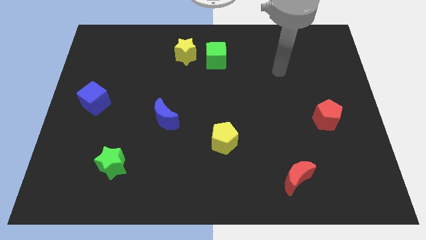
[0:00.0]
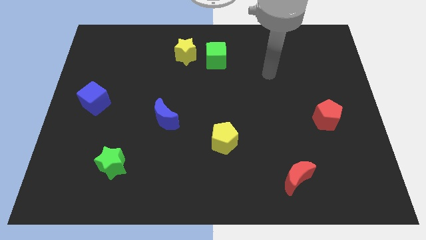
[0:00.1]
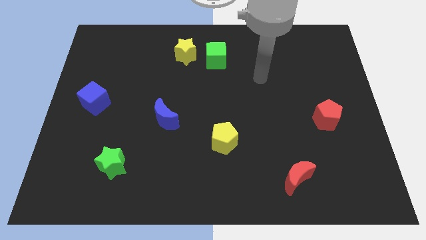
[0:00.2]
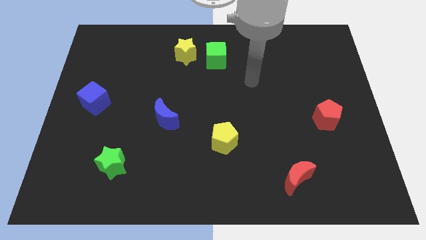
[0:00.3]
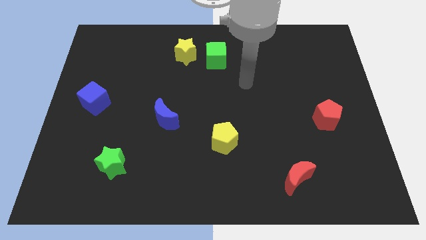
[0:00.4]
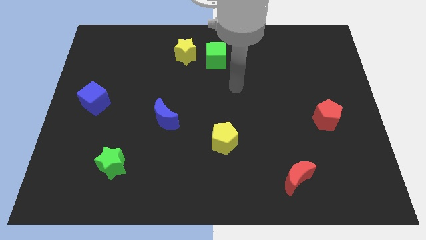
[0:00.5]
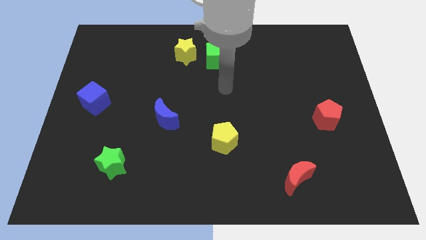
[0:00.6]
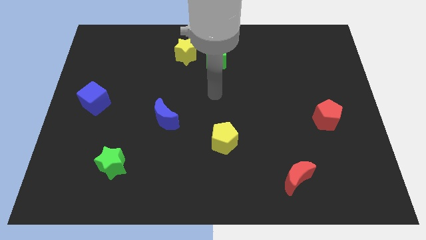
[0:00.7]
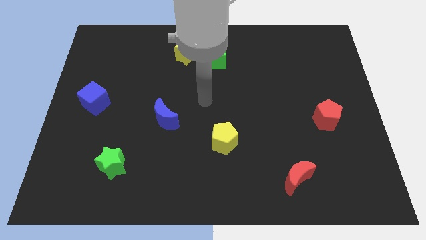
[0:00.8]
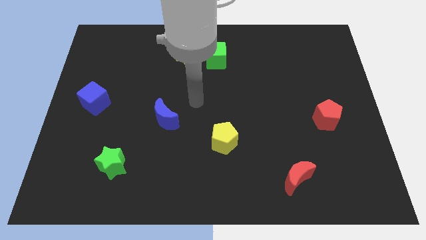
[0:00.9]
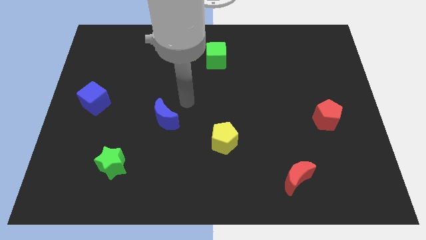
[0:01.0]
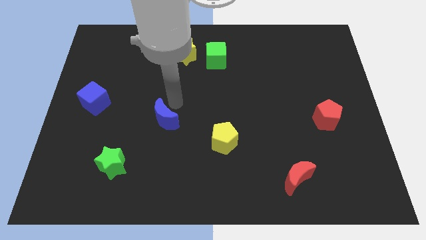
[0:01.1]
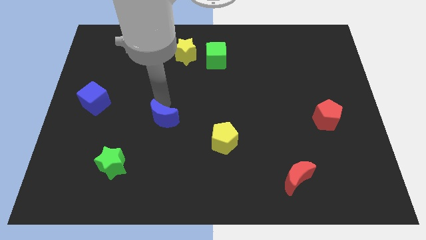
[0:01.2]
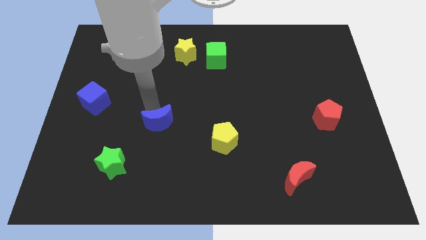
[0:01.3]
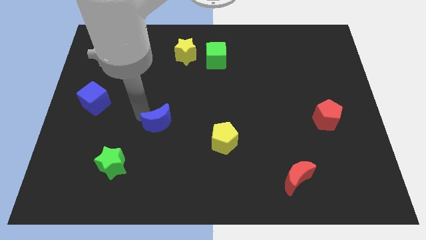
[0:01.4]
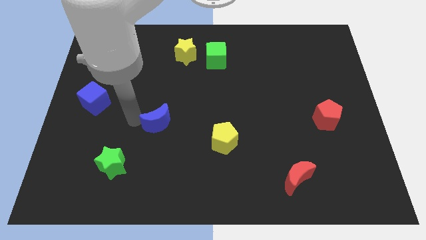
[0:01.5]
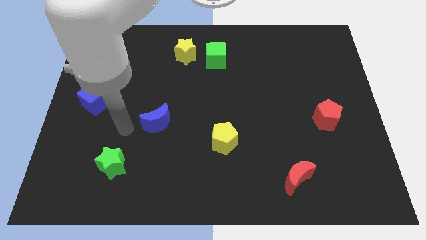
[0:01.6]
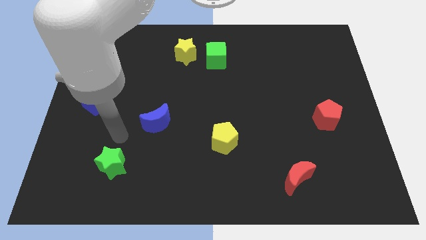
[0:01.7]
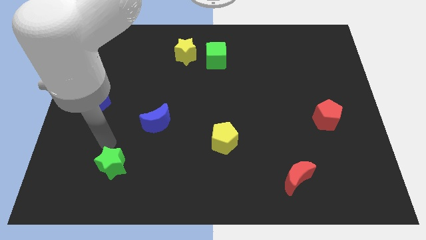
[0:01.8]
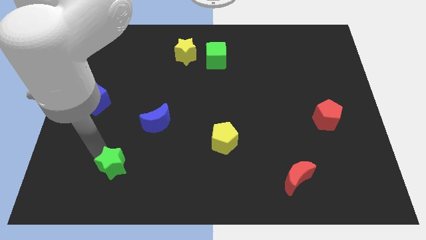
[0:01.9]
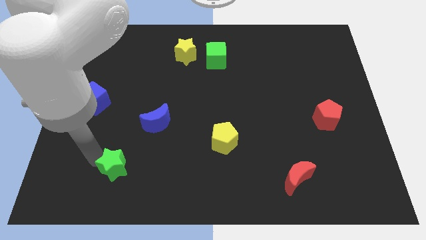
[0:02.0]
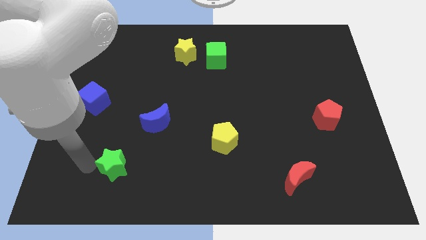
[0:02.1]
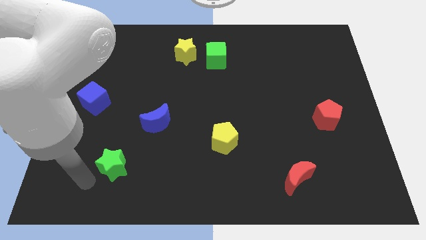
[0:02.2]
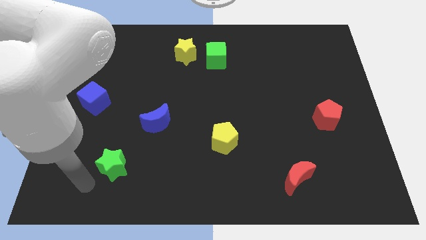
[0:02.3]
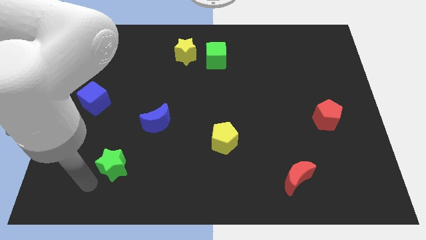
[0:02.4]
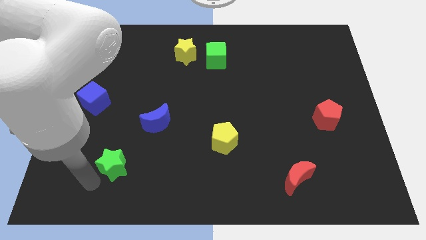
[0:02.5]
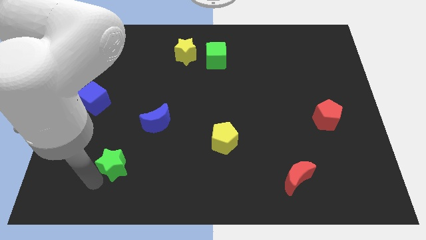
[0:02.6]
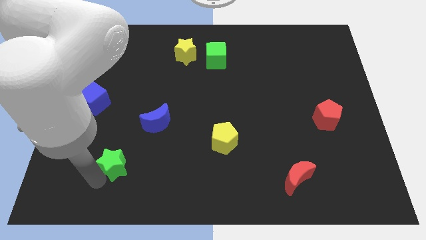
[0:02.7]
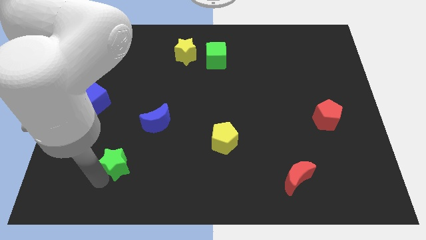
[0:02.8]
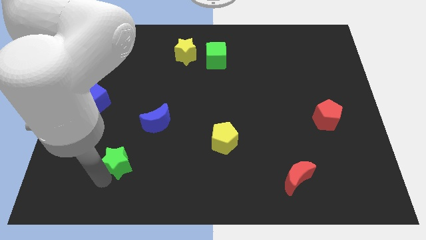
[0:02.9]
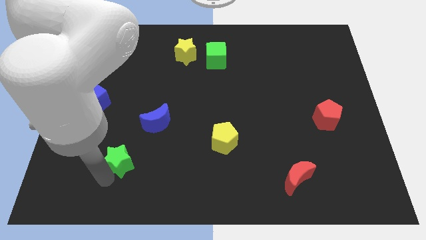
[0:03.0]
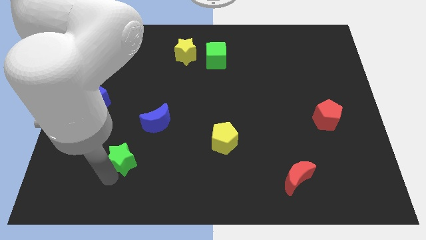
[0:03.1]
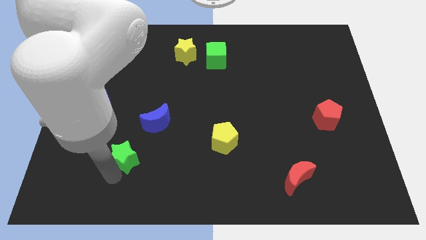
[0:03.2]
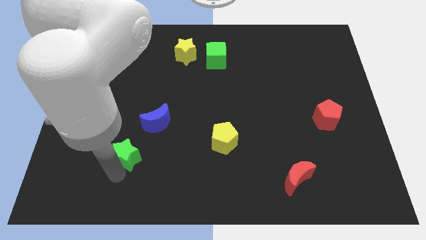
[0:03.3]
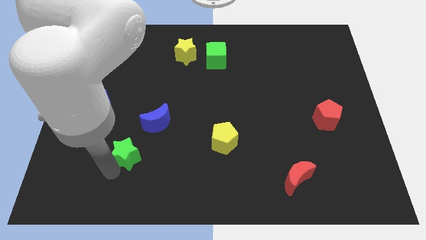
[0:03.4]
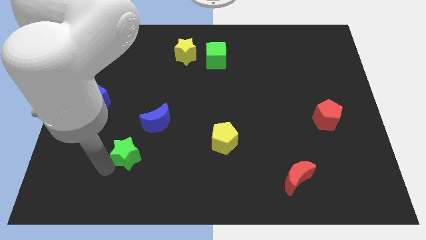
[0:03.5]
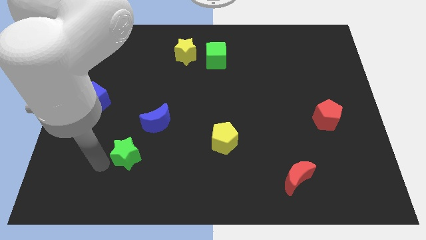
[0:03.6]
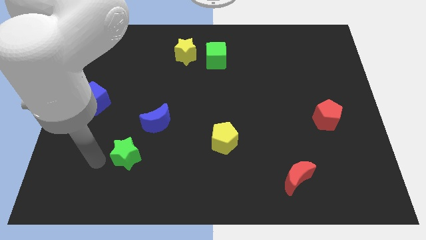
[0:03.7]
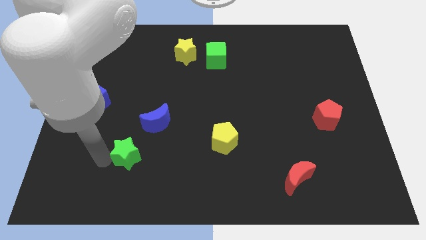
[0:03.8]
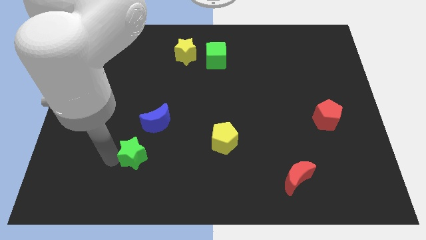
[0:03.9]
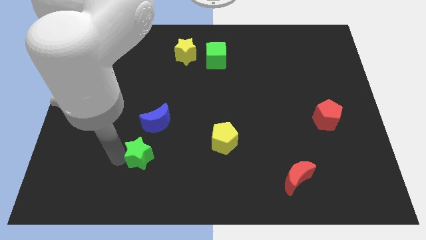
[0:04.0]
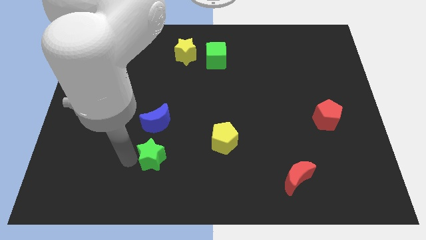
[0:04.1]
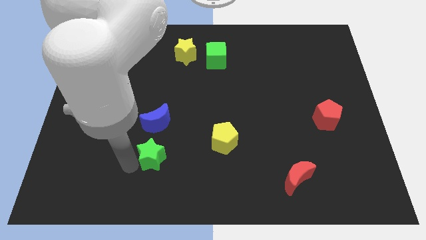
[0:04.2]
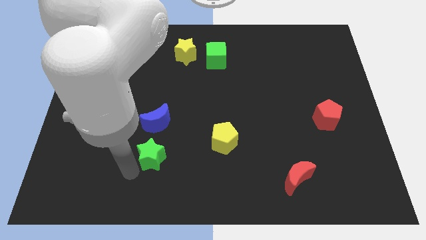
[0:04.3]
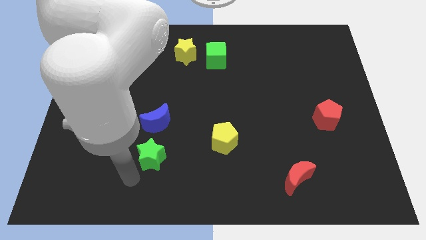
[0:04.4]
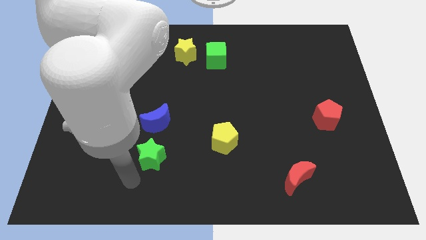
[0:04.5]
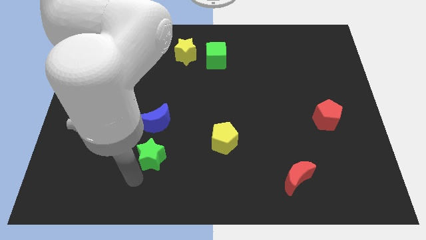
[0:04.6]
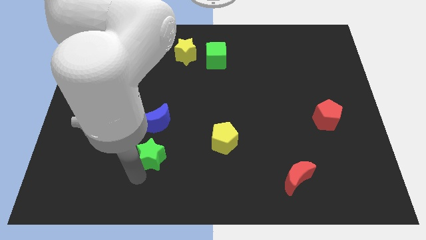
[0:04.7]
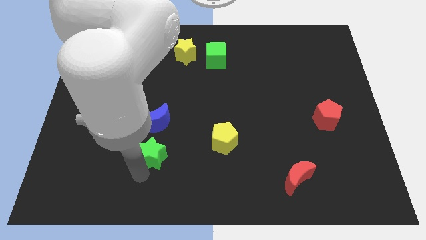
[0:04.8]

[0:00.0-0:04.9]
push the green star a little diagonally upwards and right

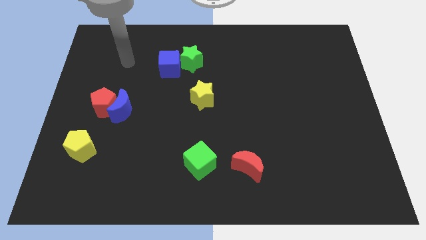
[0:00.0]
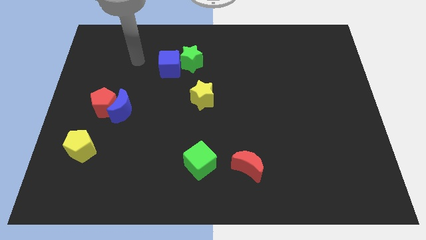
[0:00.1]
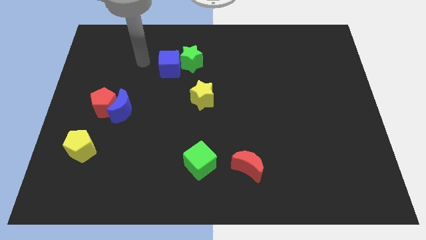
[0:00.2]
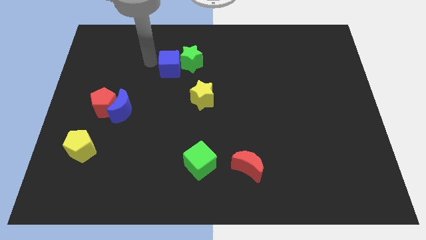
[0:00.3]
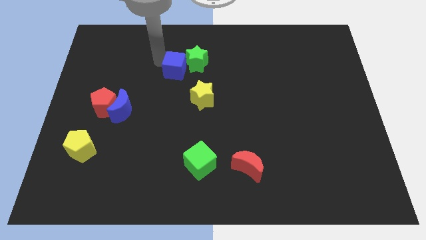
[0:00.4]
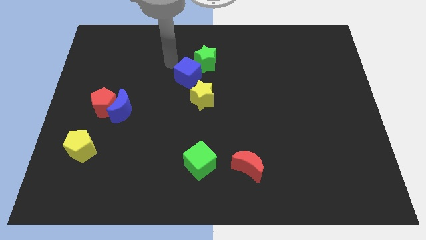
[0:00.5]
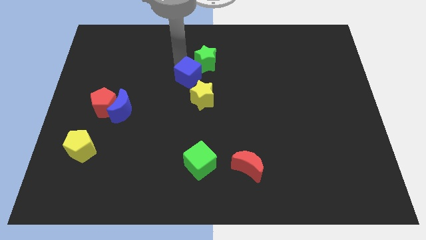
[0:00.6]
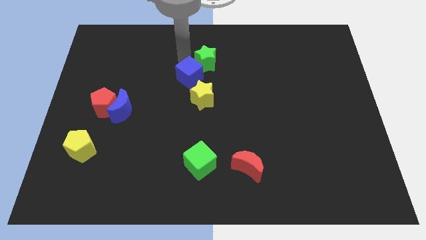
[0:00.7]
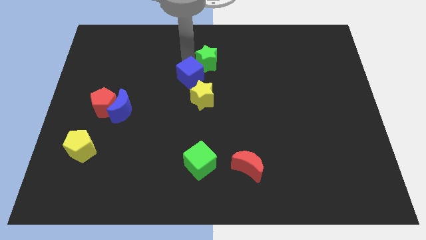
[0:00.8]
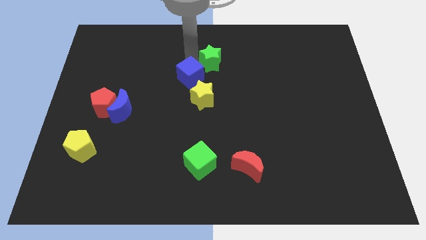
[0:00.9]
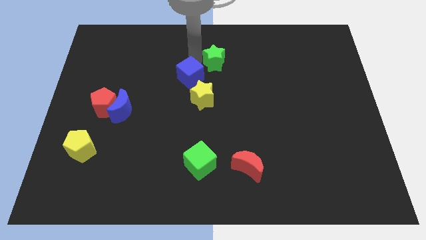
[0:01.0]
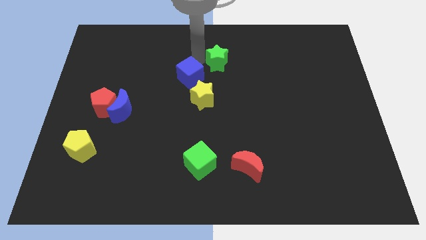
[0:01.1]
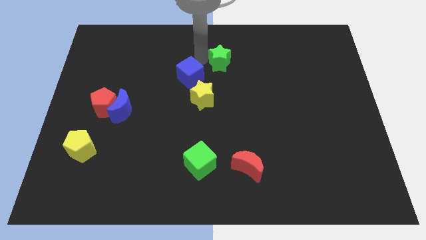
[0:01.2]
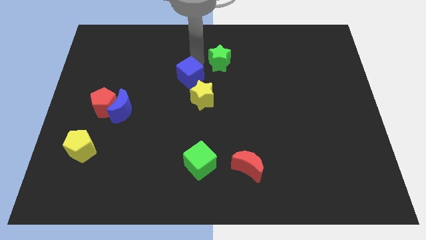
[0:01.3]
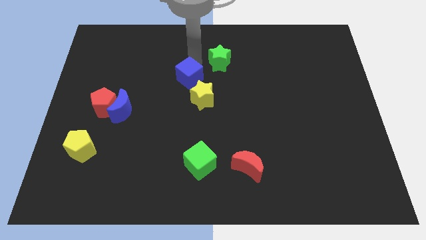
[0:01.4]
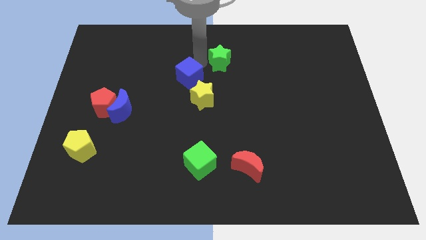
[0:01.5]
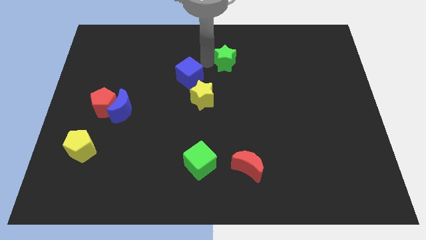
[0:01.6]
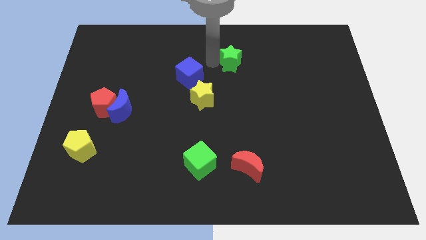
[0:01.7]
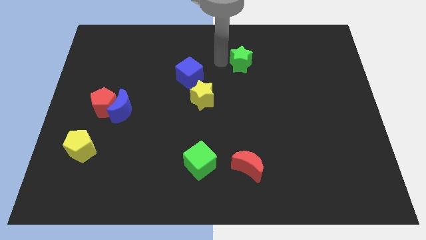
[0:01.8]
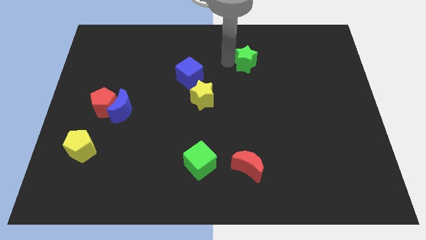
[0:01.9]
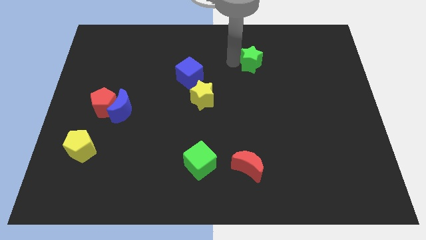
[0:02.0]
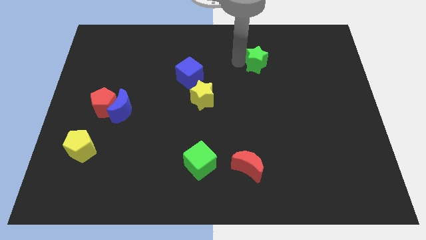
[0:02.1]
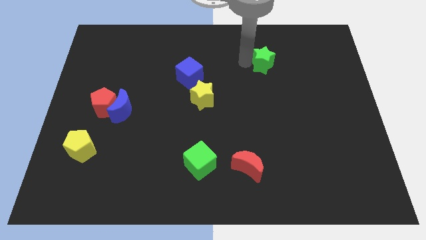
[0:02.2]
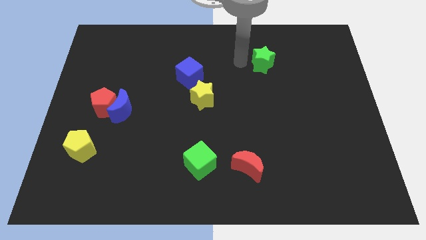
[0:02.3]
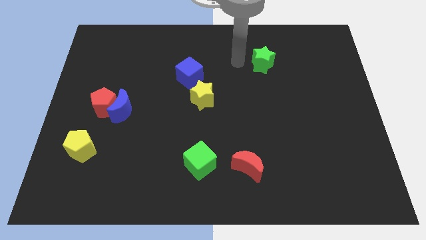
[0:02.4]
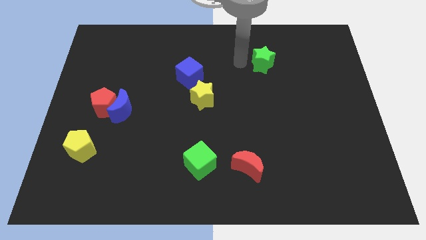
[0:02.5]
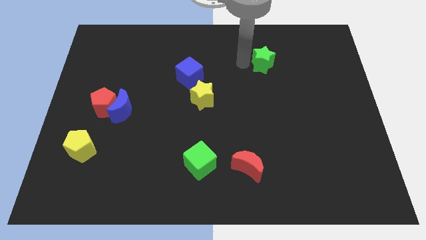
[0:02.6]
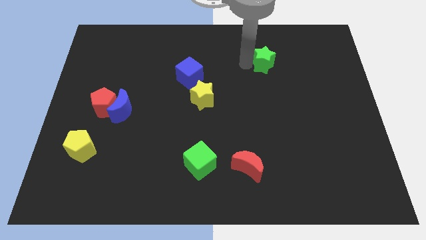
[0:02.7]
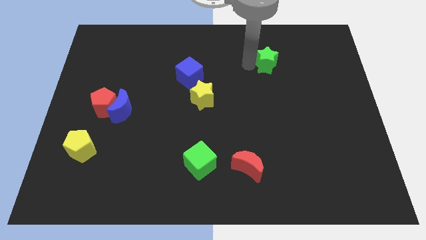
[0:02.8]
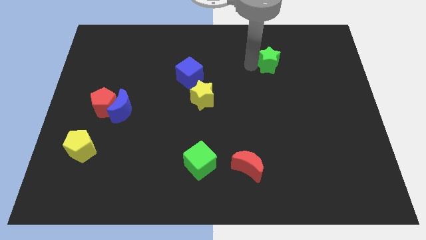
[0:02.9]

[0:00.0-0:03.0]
push the green star to the right

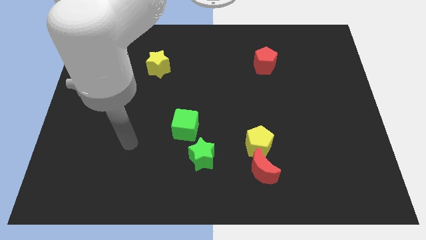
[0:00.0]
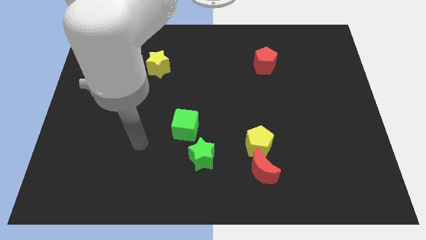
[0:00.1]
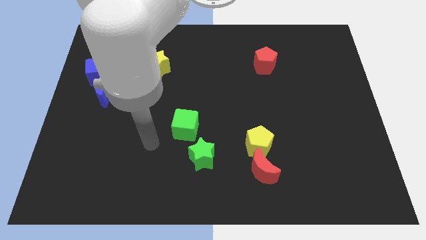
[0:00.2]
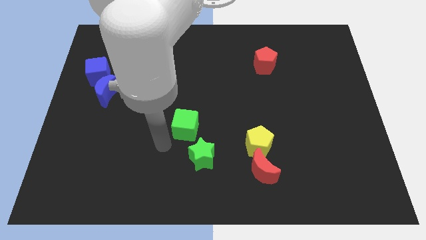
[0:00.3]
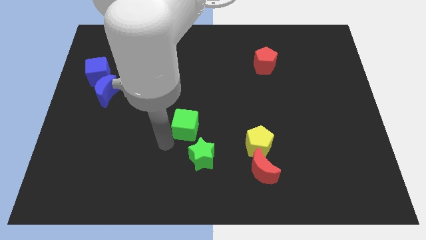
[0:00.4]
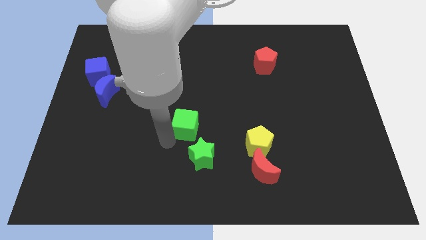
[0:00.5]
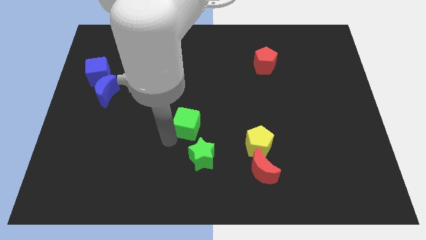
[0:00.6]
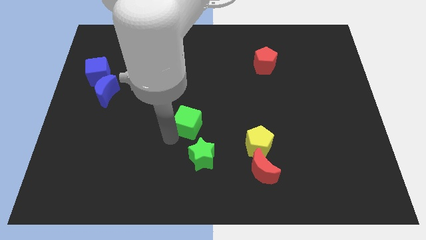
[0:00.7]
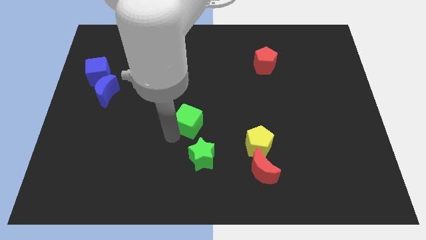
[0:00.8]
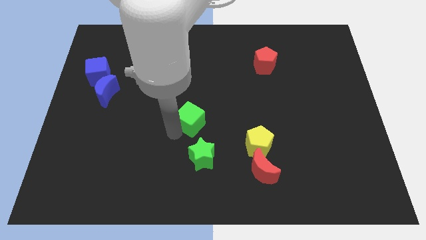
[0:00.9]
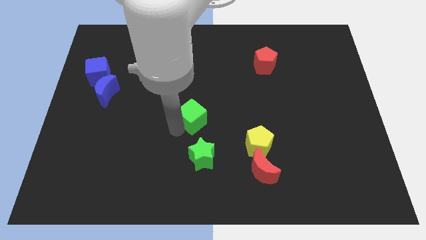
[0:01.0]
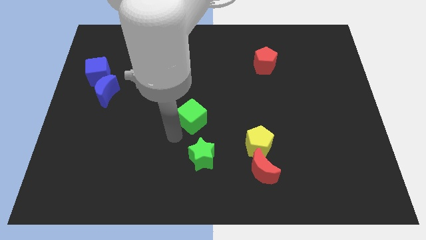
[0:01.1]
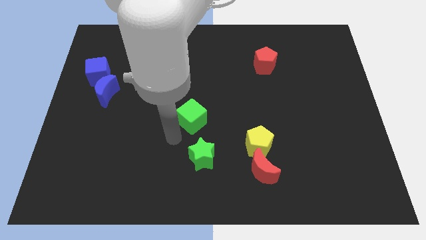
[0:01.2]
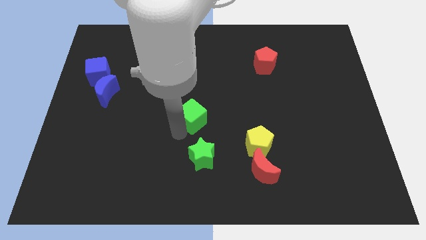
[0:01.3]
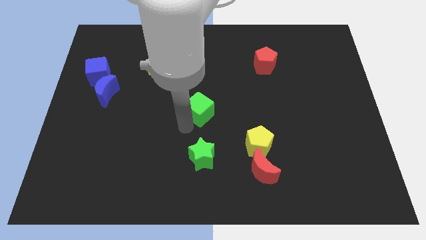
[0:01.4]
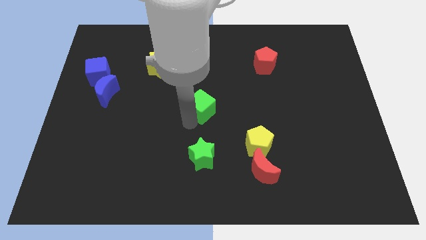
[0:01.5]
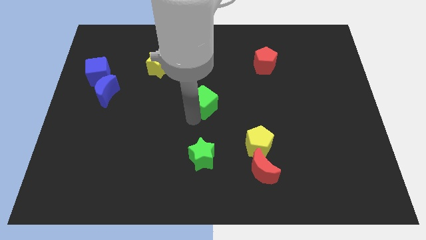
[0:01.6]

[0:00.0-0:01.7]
push the green cube slightly up and then to the right
